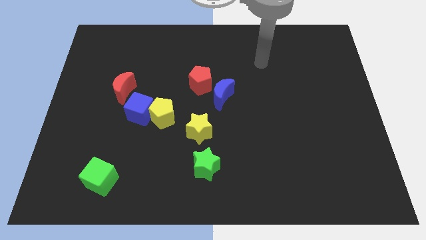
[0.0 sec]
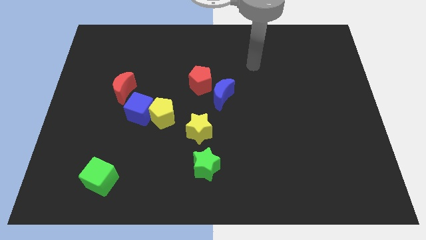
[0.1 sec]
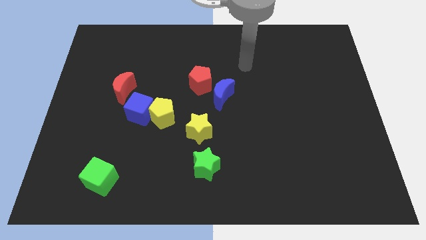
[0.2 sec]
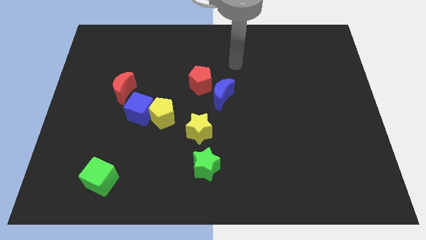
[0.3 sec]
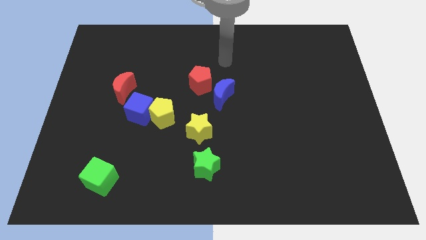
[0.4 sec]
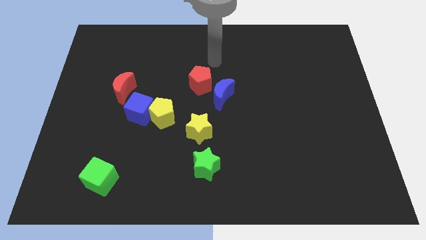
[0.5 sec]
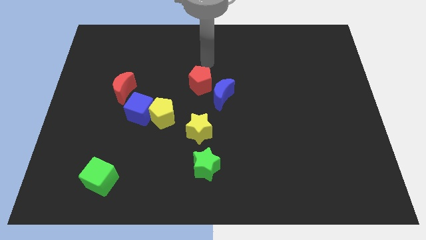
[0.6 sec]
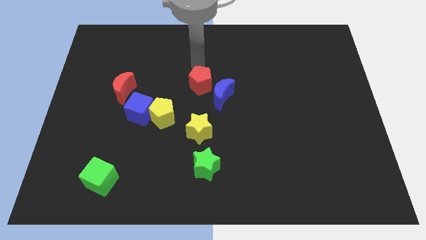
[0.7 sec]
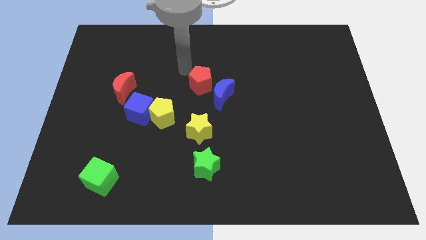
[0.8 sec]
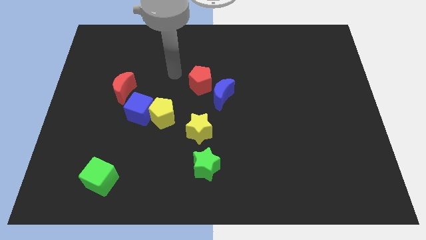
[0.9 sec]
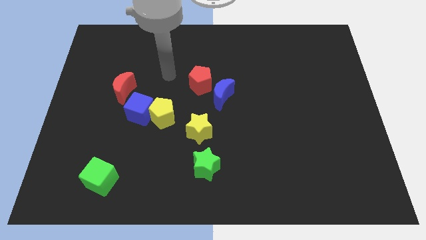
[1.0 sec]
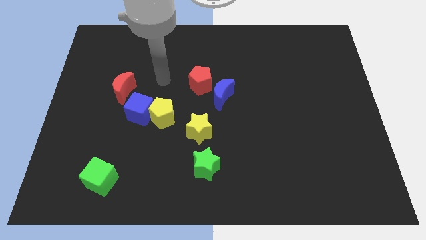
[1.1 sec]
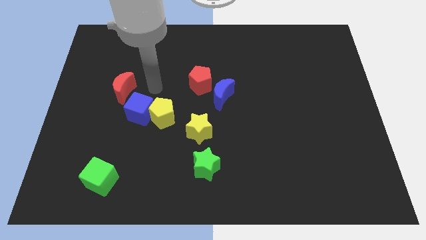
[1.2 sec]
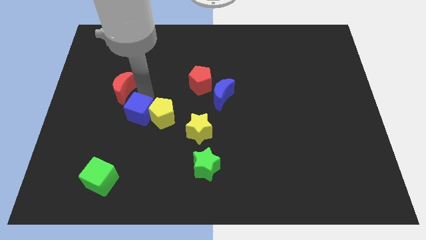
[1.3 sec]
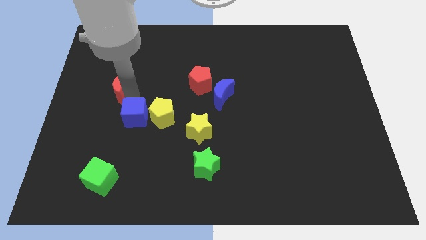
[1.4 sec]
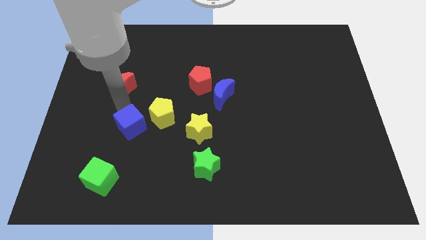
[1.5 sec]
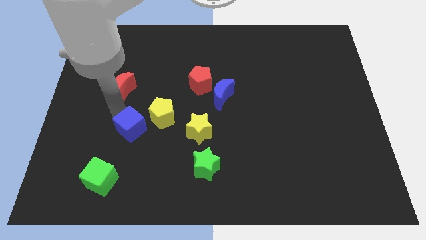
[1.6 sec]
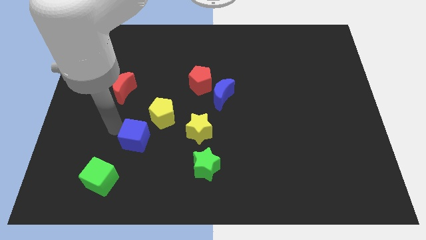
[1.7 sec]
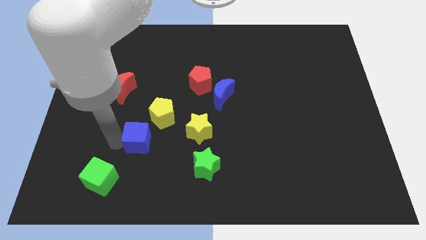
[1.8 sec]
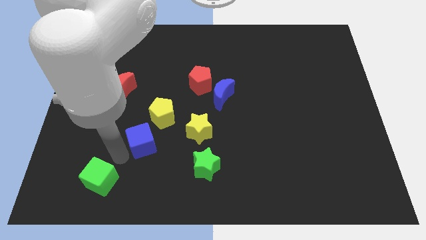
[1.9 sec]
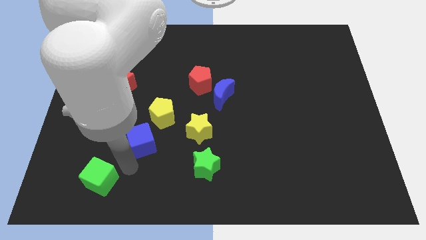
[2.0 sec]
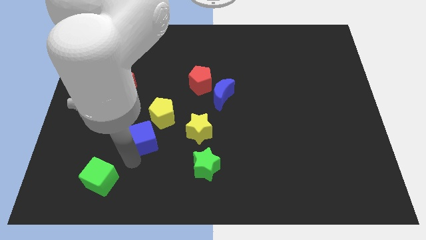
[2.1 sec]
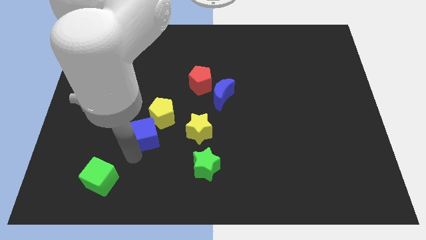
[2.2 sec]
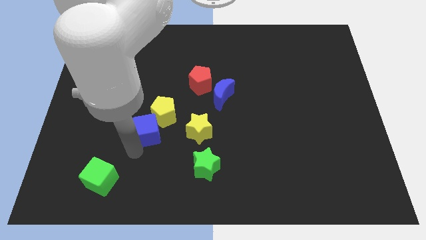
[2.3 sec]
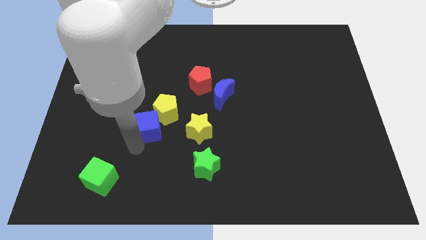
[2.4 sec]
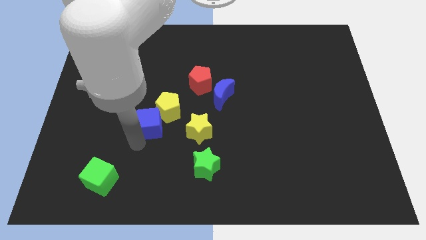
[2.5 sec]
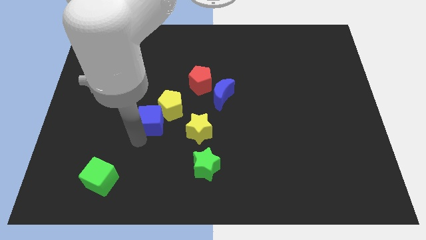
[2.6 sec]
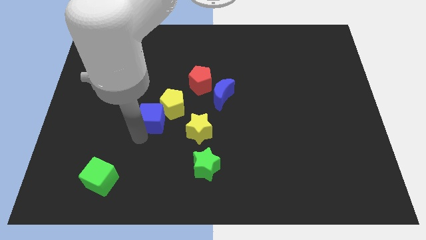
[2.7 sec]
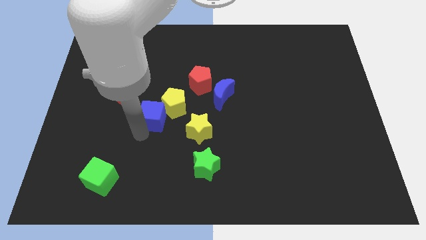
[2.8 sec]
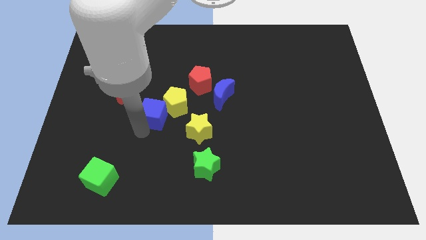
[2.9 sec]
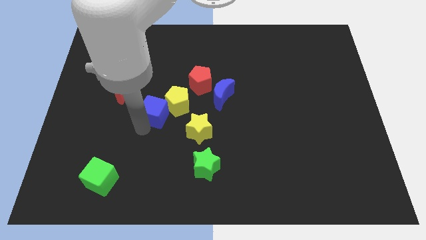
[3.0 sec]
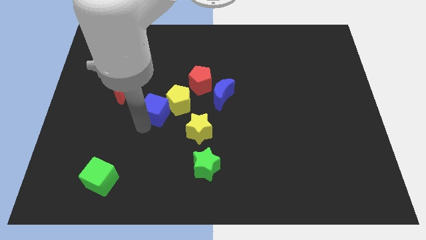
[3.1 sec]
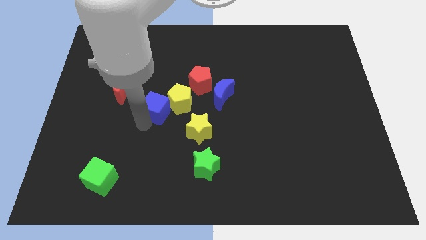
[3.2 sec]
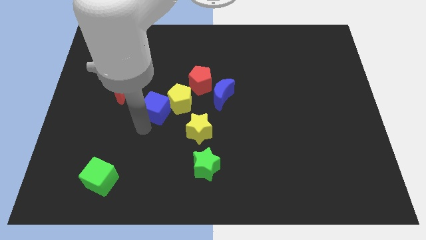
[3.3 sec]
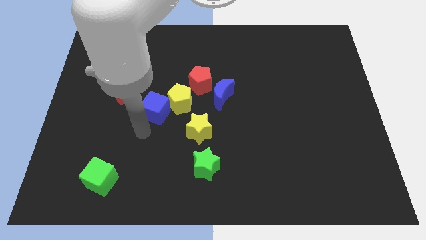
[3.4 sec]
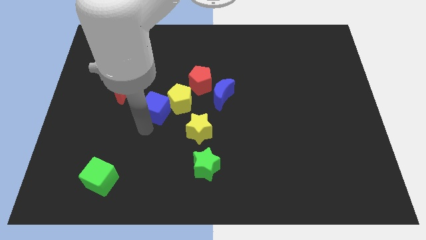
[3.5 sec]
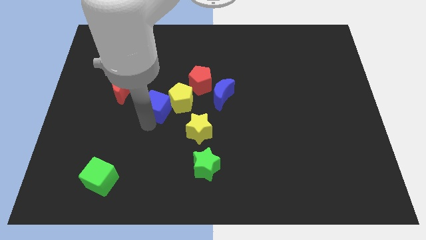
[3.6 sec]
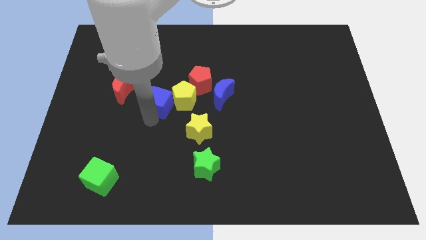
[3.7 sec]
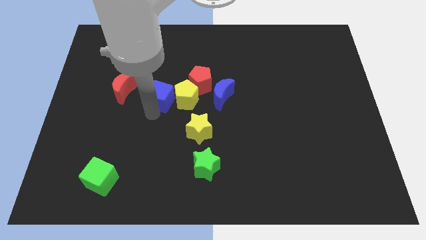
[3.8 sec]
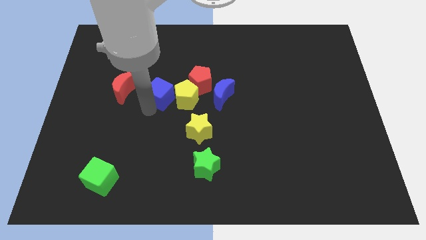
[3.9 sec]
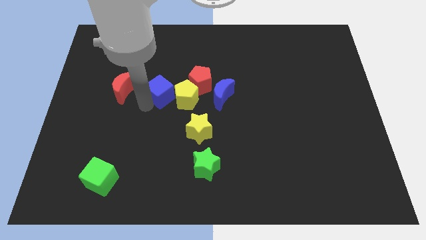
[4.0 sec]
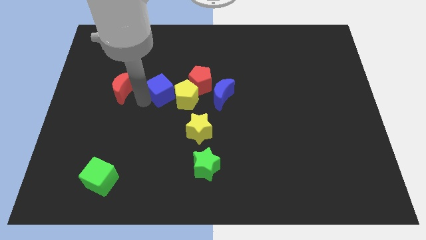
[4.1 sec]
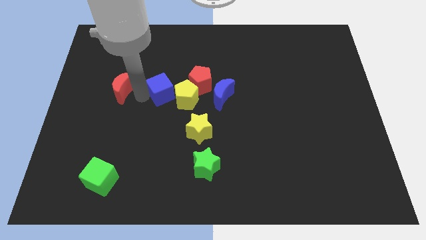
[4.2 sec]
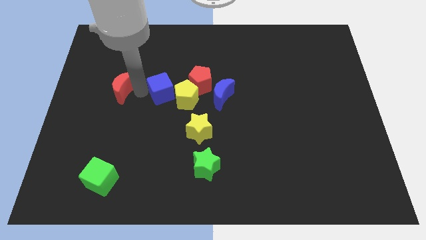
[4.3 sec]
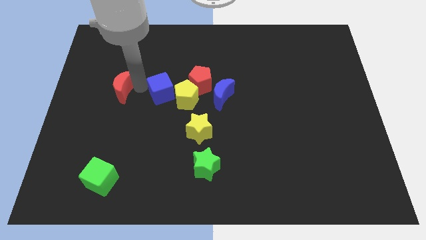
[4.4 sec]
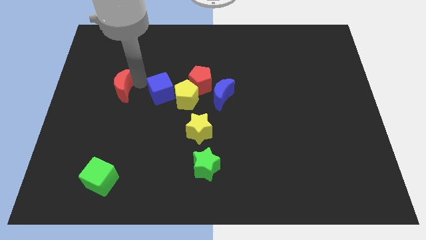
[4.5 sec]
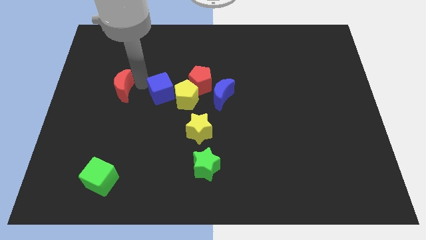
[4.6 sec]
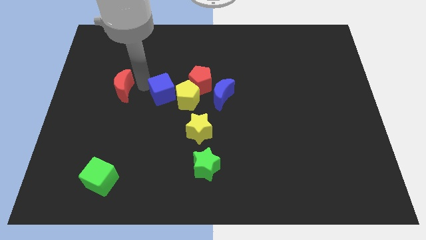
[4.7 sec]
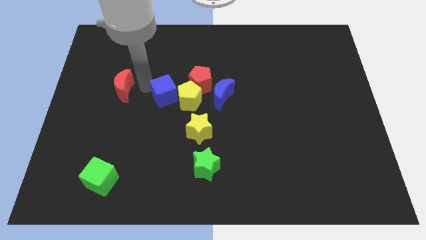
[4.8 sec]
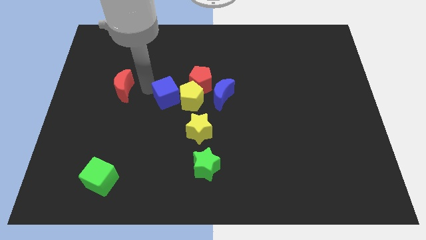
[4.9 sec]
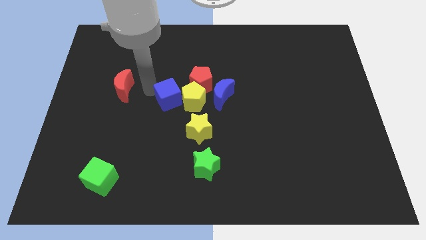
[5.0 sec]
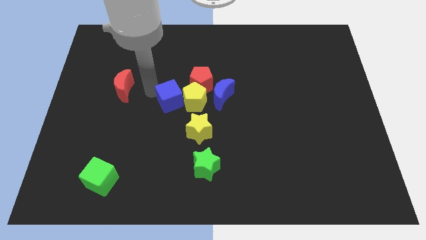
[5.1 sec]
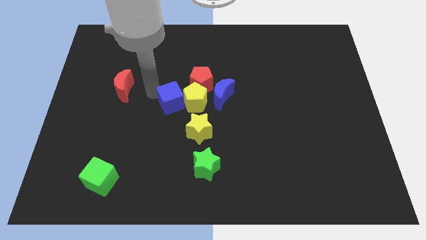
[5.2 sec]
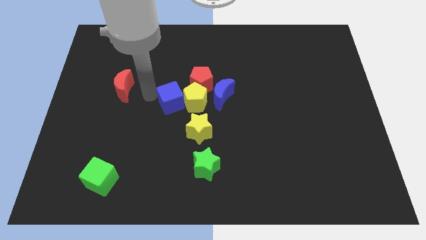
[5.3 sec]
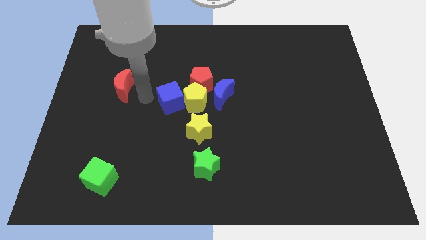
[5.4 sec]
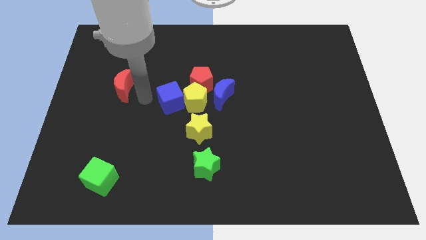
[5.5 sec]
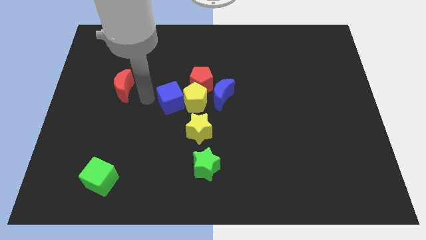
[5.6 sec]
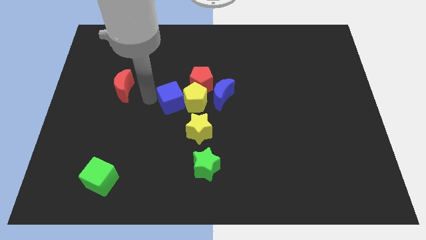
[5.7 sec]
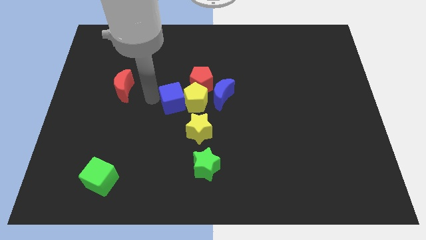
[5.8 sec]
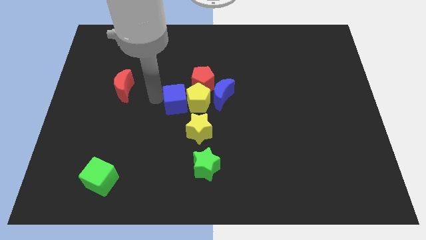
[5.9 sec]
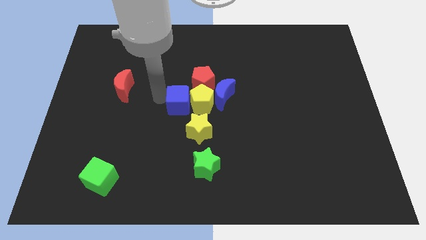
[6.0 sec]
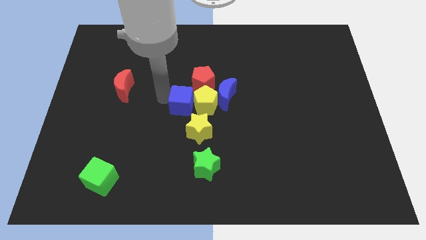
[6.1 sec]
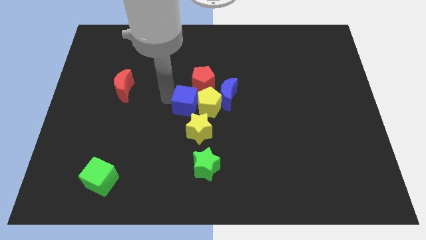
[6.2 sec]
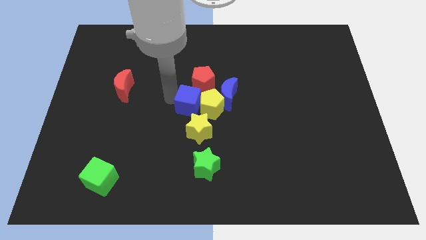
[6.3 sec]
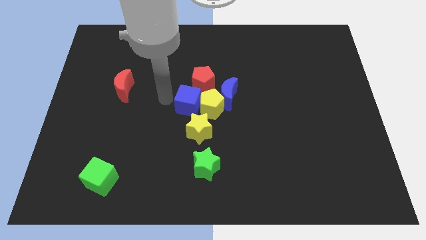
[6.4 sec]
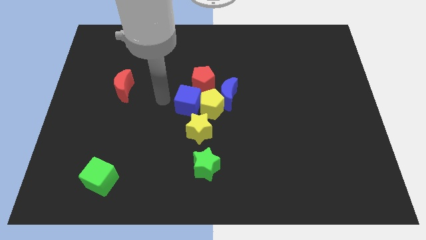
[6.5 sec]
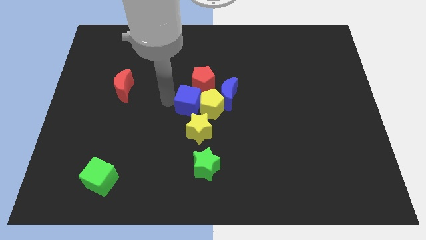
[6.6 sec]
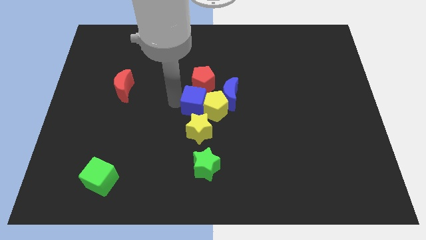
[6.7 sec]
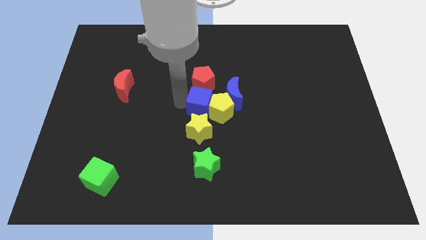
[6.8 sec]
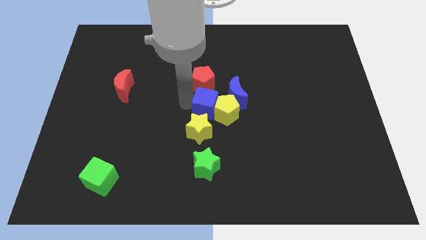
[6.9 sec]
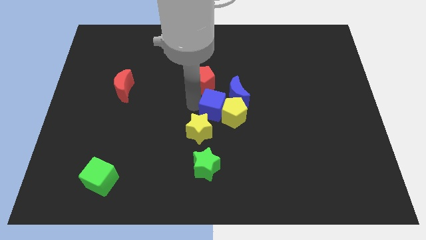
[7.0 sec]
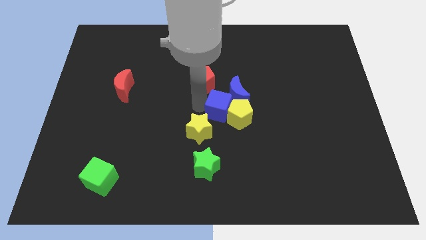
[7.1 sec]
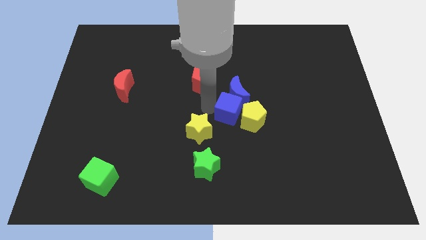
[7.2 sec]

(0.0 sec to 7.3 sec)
slide the blue cube to the right

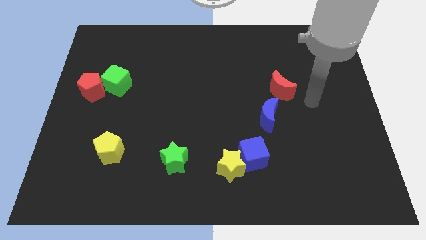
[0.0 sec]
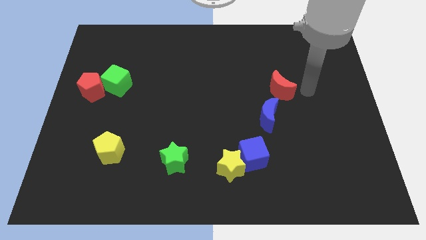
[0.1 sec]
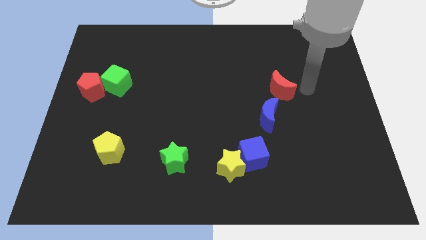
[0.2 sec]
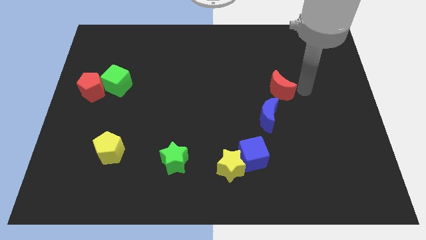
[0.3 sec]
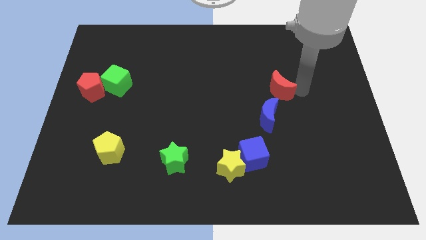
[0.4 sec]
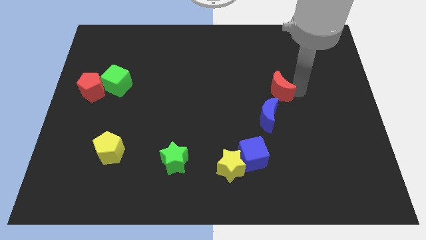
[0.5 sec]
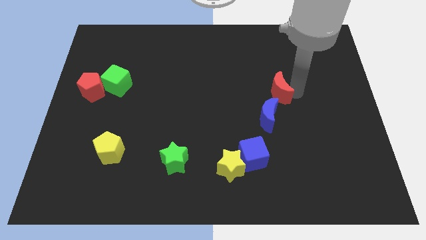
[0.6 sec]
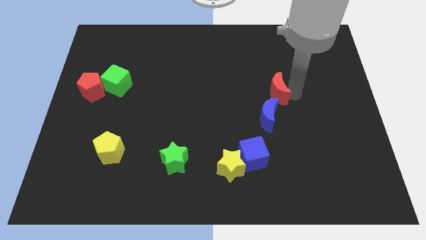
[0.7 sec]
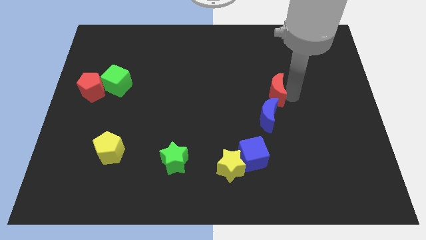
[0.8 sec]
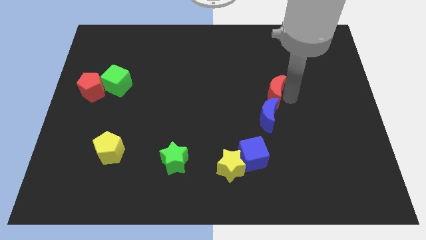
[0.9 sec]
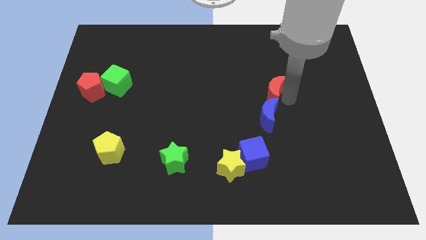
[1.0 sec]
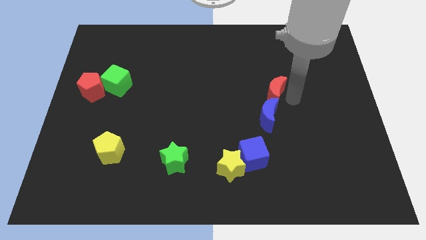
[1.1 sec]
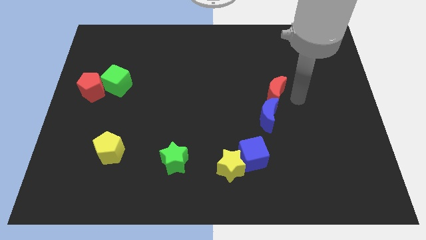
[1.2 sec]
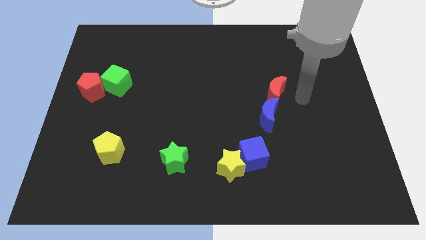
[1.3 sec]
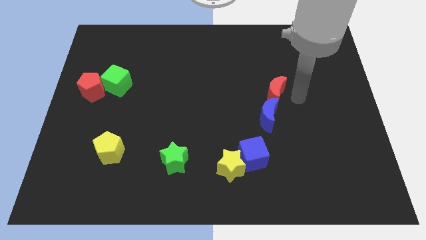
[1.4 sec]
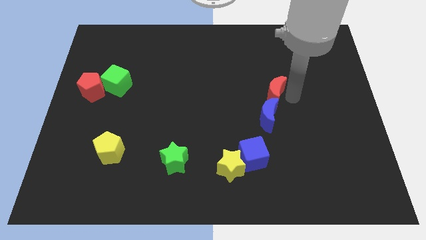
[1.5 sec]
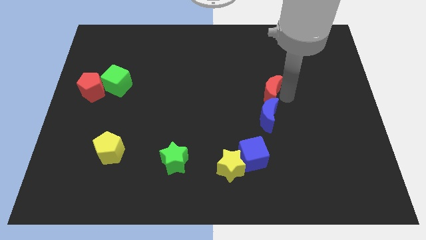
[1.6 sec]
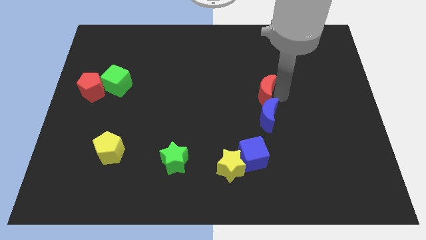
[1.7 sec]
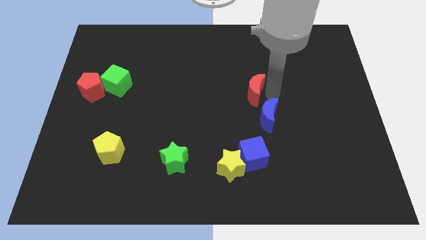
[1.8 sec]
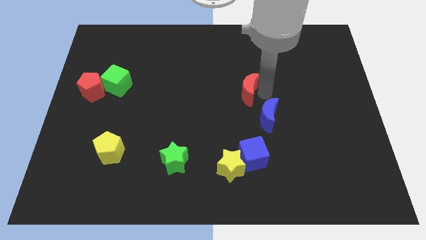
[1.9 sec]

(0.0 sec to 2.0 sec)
slightly move the red moon to the left
